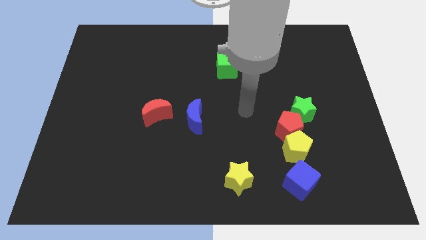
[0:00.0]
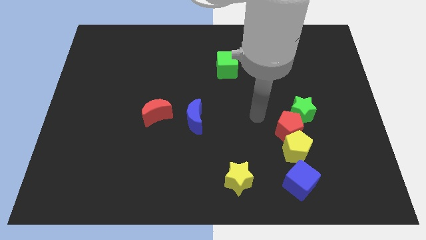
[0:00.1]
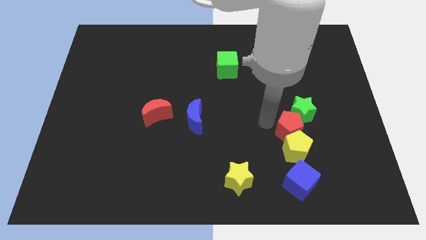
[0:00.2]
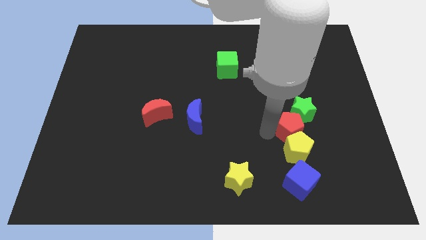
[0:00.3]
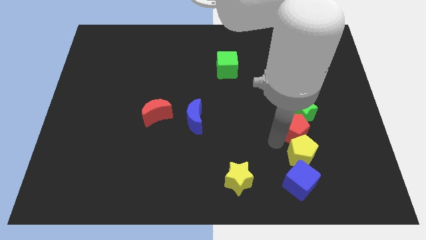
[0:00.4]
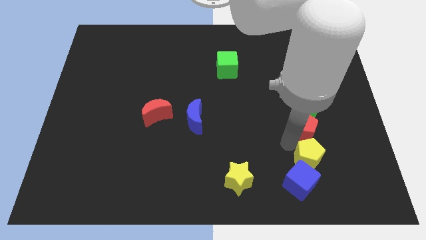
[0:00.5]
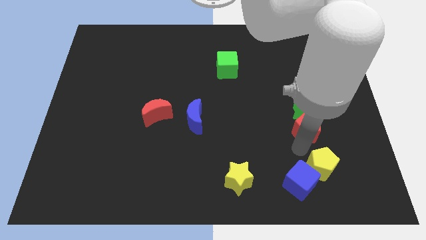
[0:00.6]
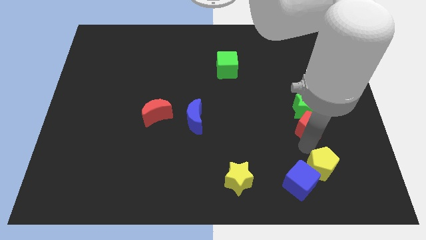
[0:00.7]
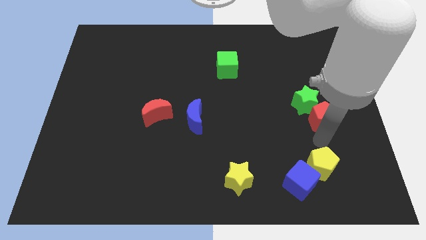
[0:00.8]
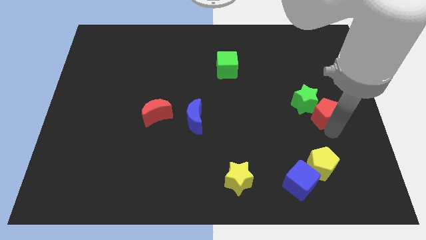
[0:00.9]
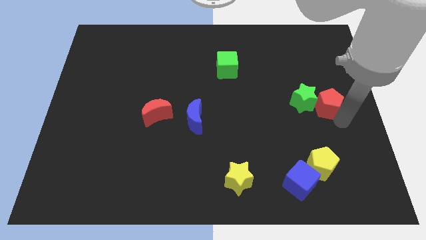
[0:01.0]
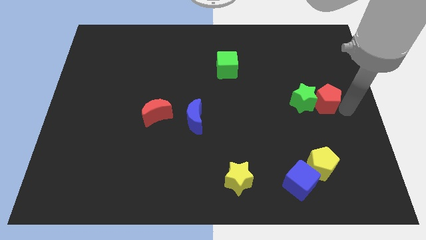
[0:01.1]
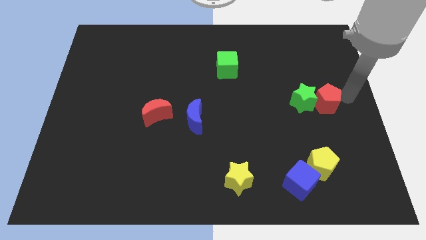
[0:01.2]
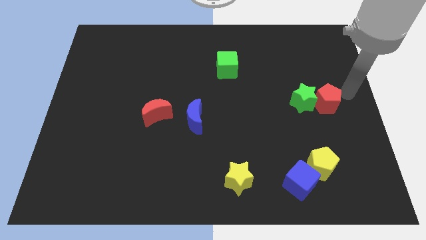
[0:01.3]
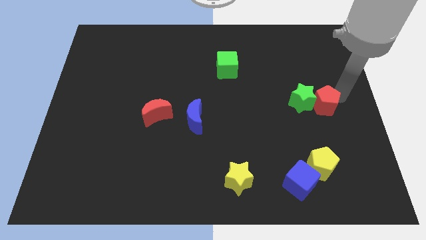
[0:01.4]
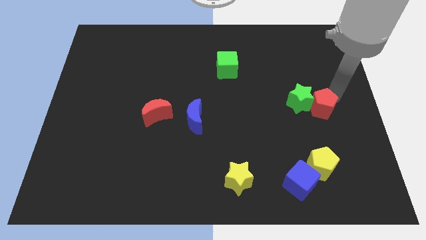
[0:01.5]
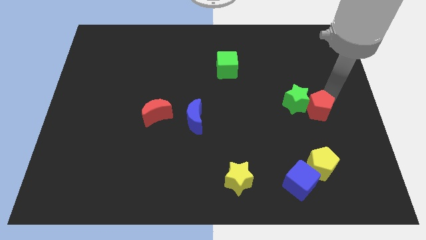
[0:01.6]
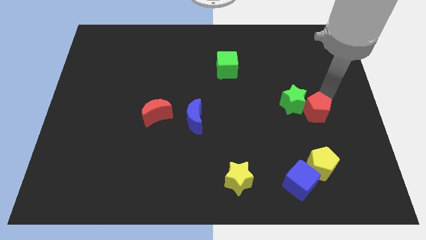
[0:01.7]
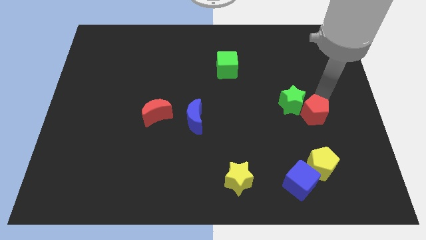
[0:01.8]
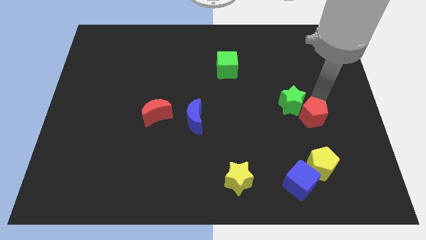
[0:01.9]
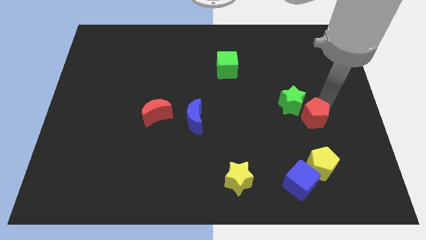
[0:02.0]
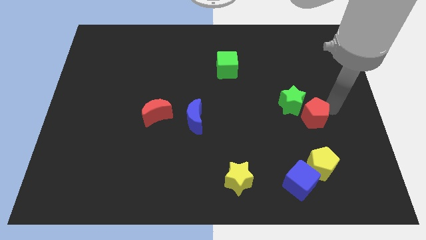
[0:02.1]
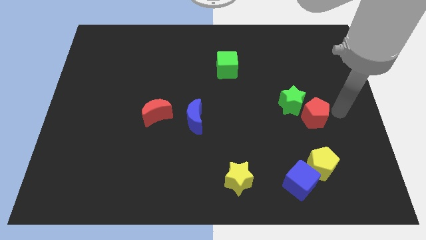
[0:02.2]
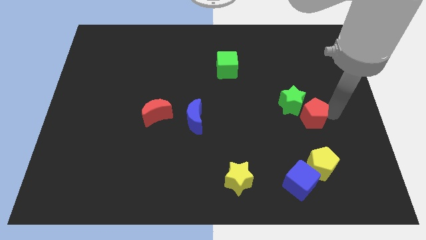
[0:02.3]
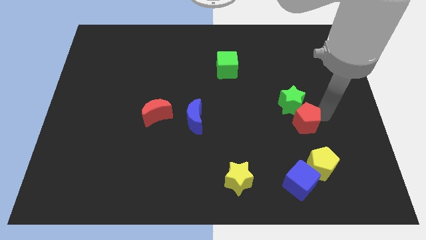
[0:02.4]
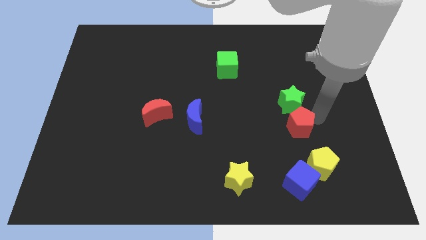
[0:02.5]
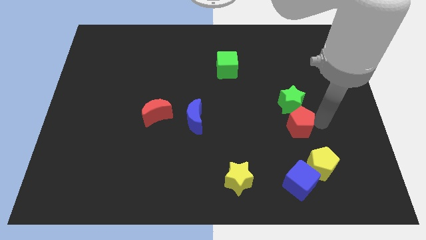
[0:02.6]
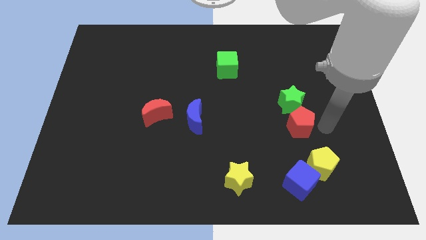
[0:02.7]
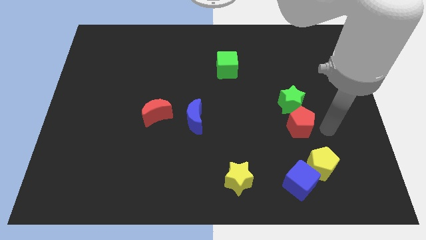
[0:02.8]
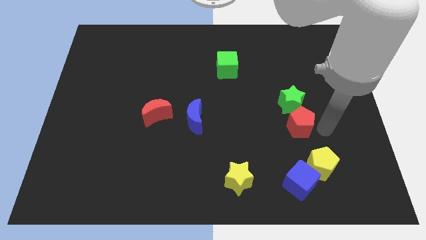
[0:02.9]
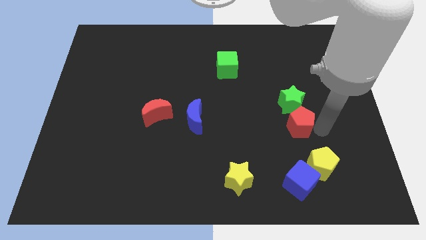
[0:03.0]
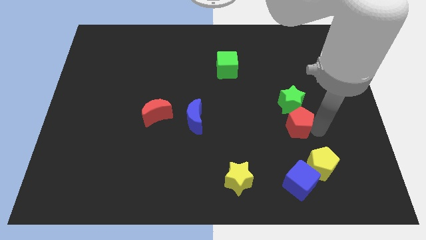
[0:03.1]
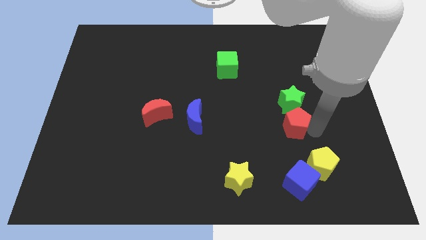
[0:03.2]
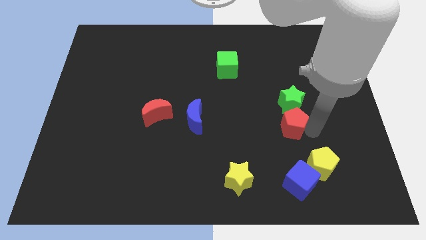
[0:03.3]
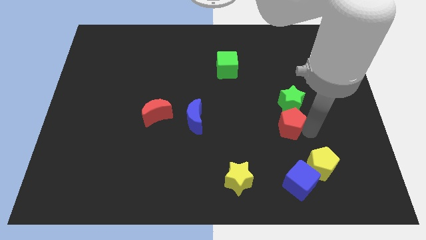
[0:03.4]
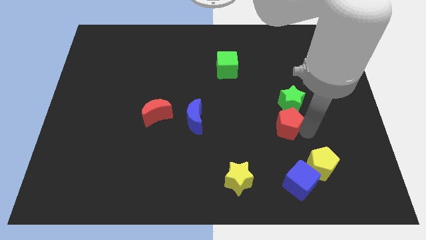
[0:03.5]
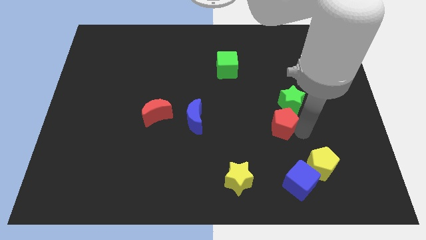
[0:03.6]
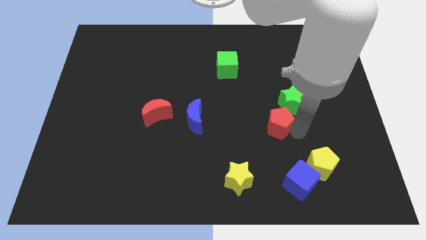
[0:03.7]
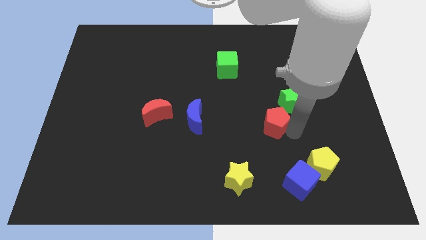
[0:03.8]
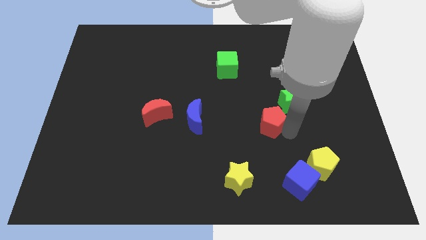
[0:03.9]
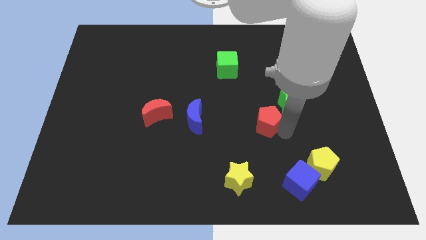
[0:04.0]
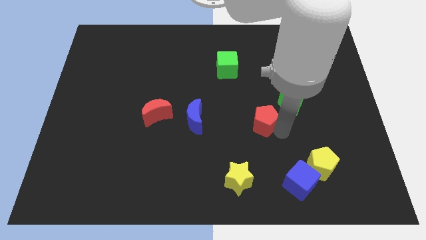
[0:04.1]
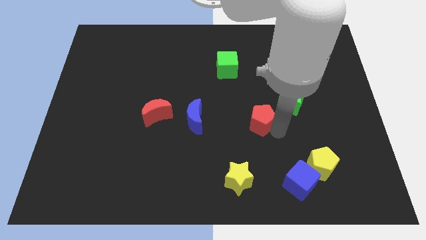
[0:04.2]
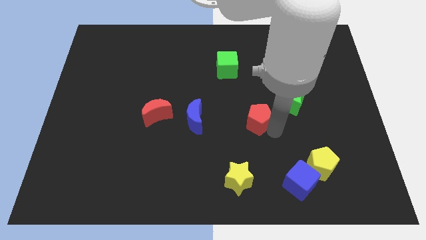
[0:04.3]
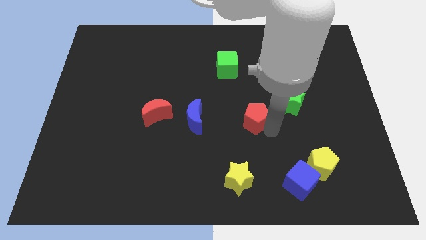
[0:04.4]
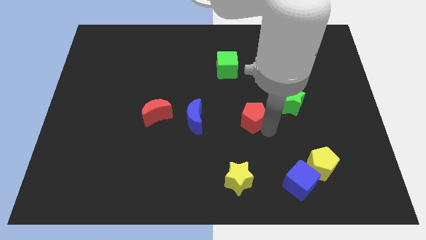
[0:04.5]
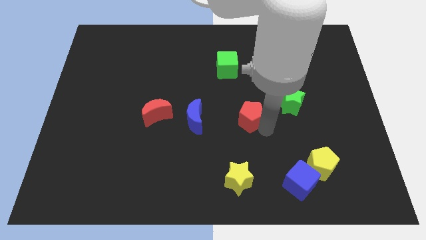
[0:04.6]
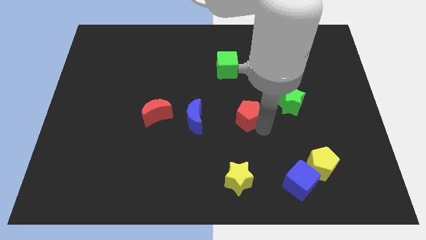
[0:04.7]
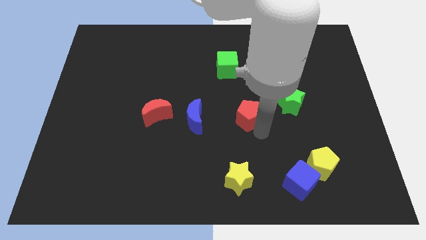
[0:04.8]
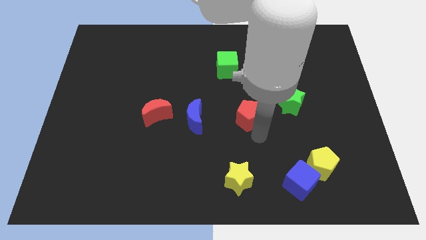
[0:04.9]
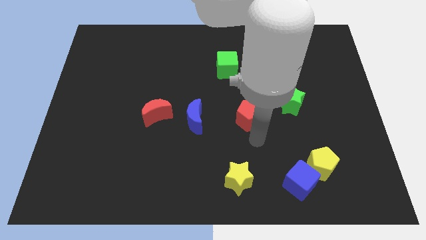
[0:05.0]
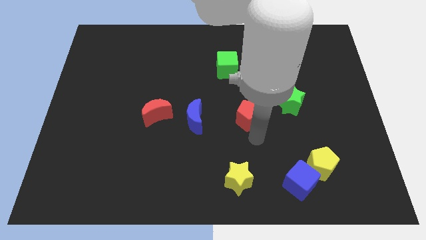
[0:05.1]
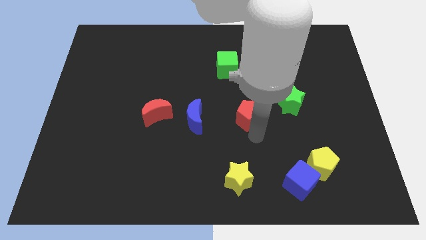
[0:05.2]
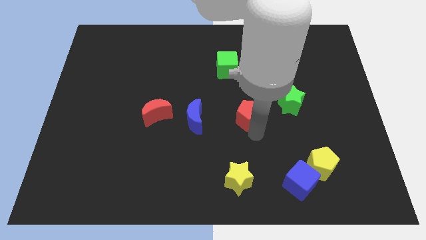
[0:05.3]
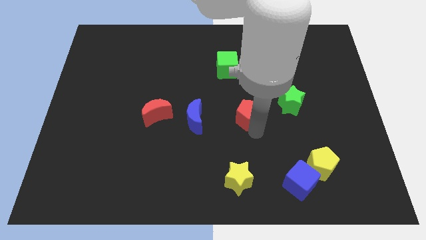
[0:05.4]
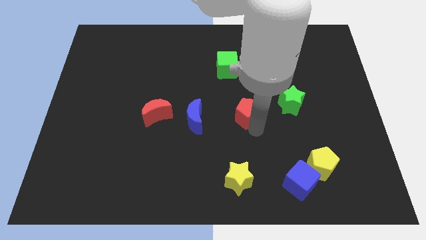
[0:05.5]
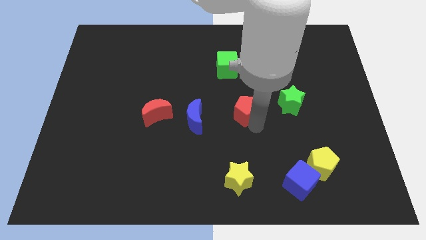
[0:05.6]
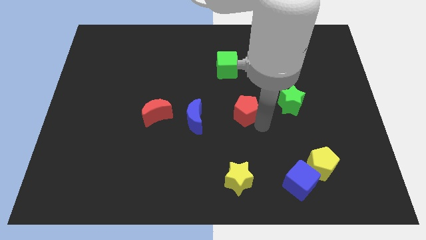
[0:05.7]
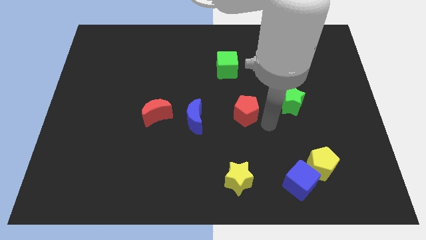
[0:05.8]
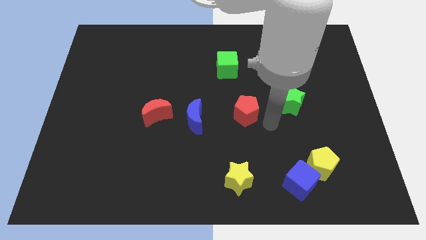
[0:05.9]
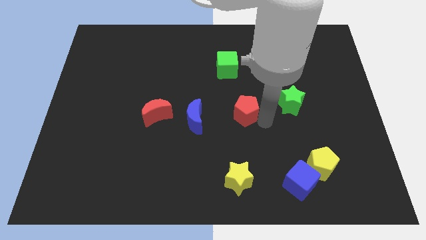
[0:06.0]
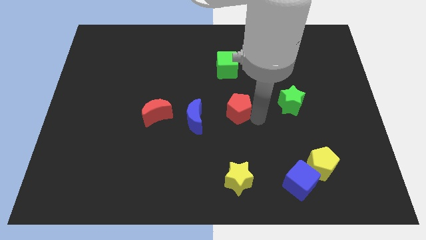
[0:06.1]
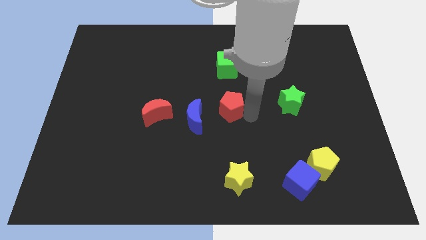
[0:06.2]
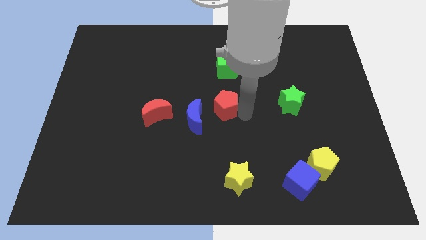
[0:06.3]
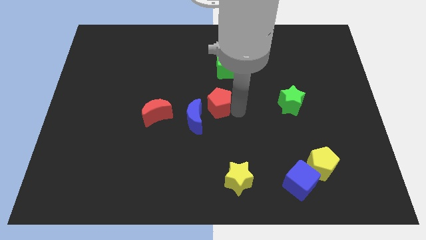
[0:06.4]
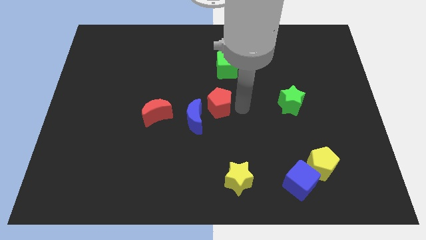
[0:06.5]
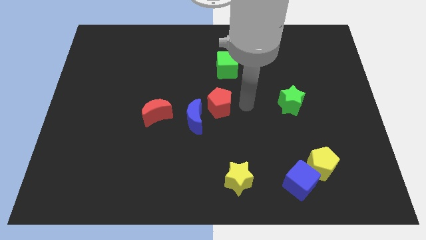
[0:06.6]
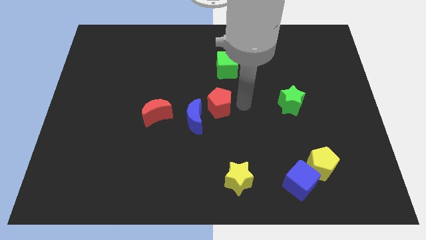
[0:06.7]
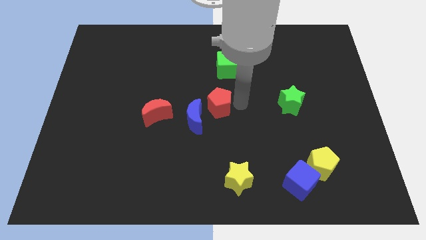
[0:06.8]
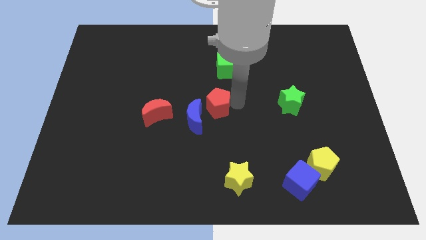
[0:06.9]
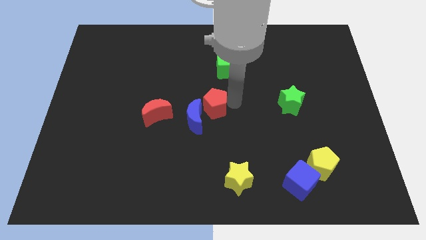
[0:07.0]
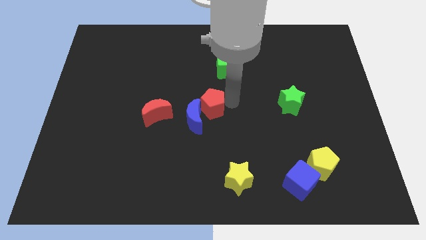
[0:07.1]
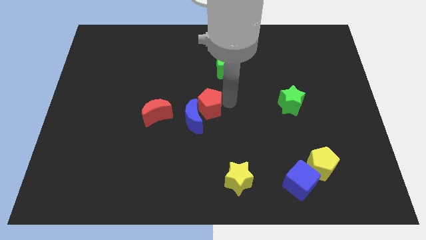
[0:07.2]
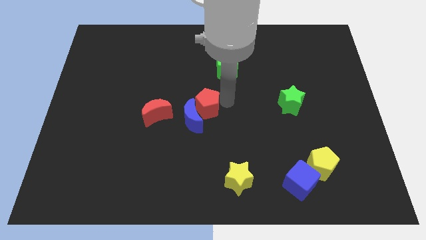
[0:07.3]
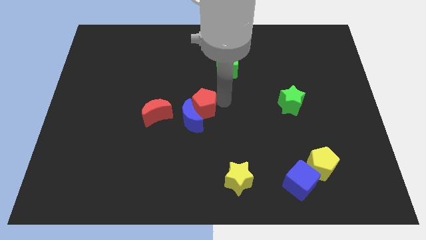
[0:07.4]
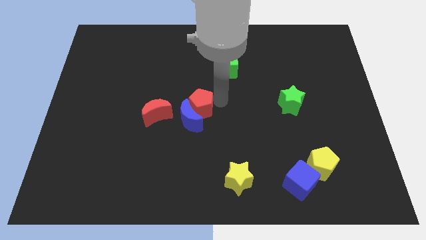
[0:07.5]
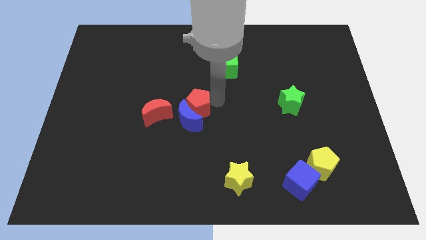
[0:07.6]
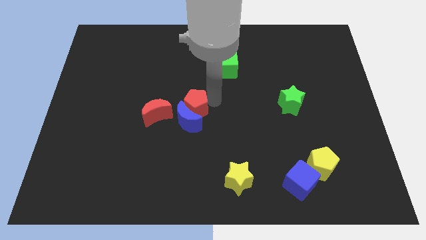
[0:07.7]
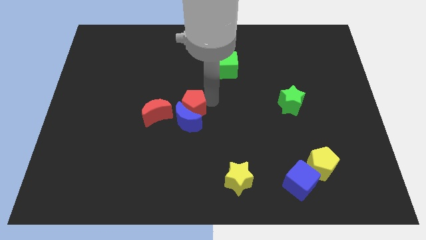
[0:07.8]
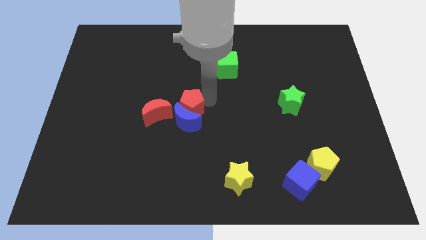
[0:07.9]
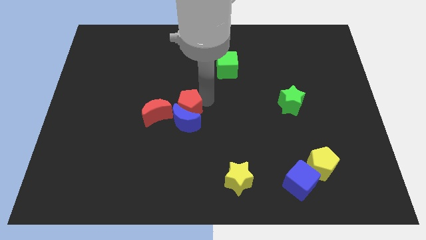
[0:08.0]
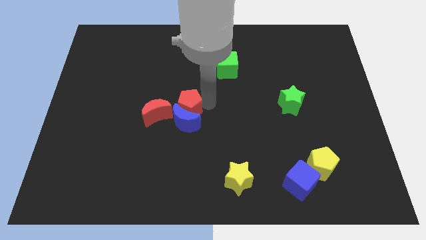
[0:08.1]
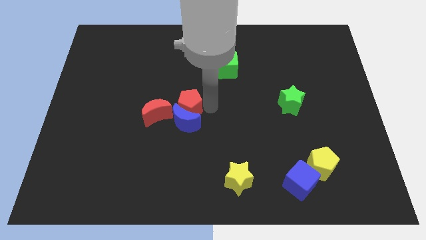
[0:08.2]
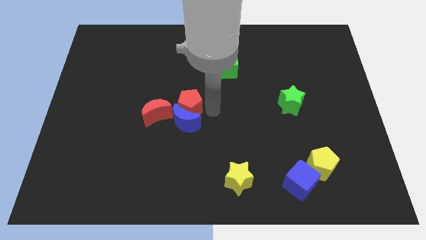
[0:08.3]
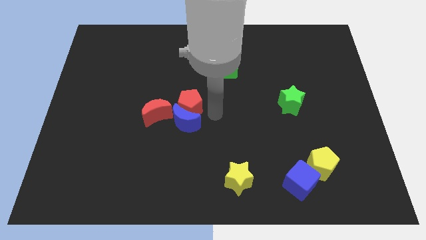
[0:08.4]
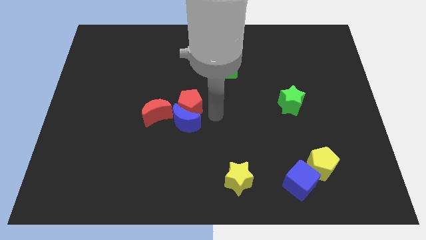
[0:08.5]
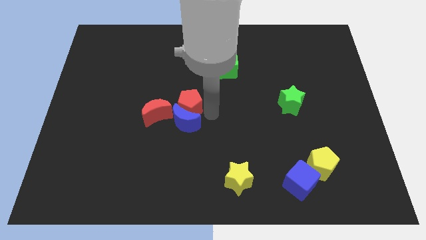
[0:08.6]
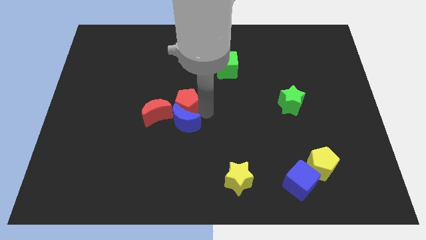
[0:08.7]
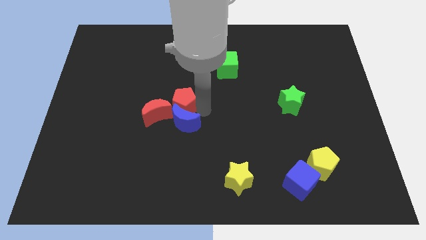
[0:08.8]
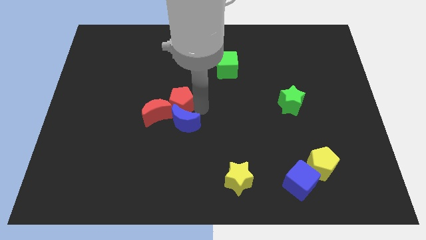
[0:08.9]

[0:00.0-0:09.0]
move the red pentagon towards the red moon
